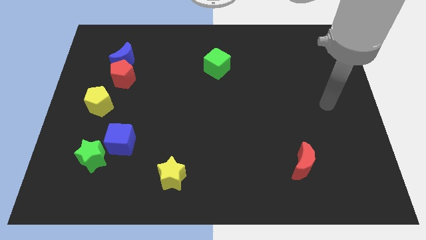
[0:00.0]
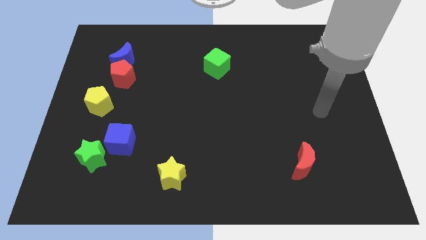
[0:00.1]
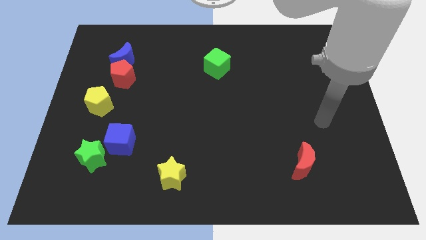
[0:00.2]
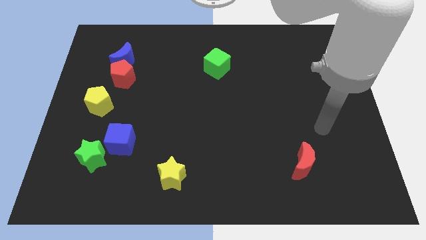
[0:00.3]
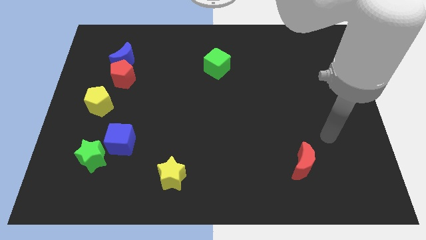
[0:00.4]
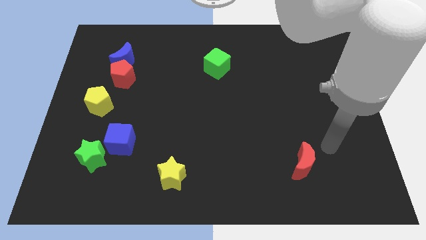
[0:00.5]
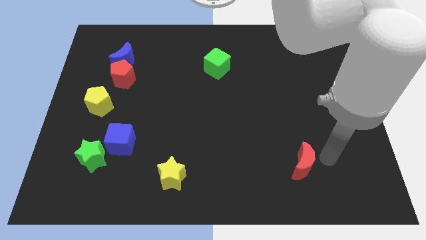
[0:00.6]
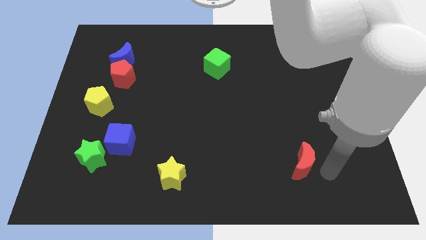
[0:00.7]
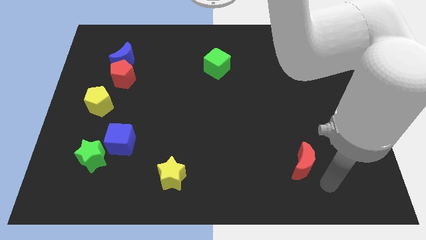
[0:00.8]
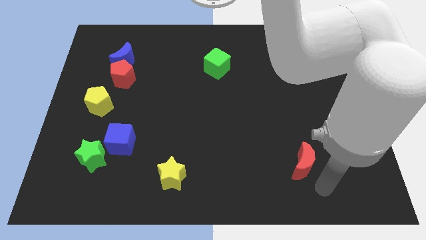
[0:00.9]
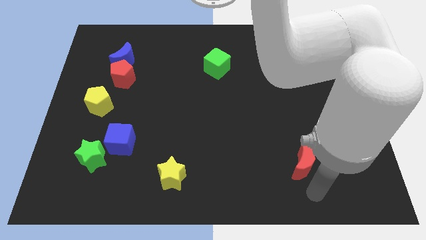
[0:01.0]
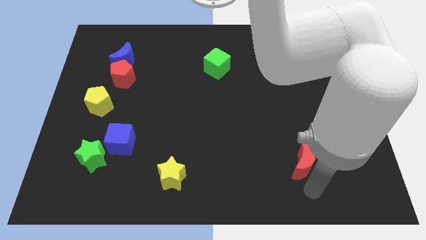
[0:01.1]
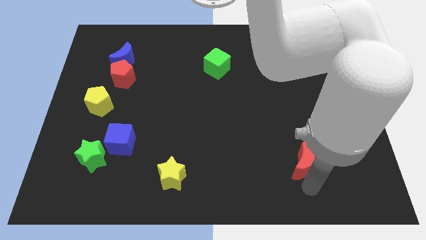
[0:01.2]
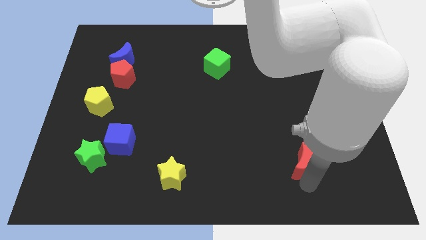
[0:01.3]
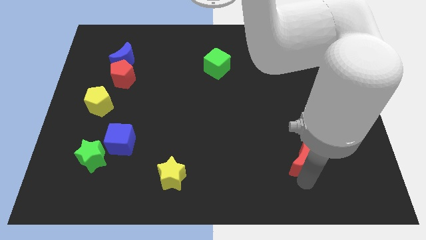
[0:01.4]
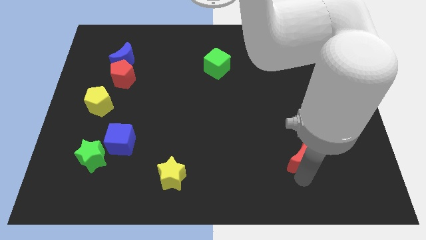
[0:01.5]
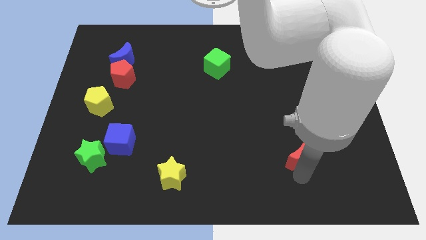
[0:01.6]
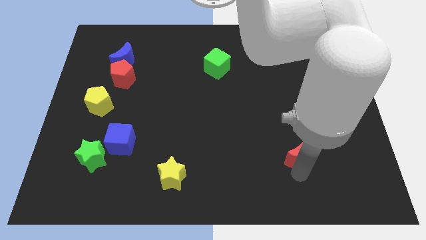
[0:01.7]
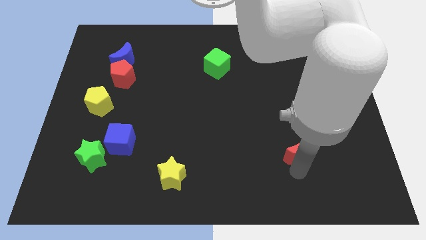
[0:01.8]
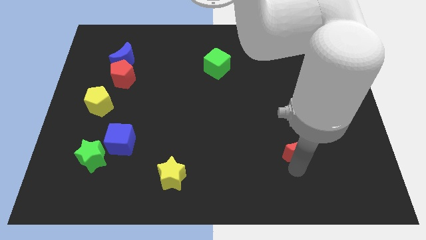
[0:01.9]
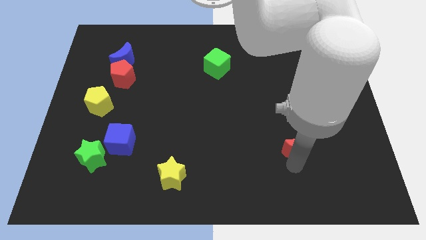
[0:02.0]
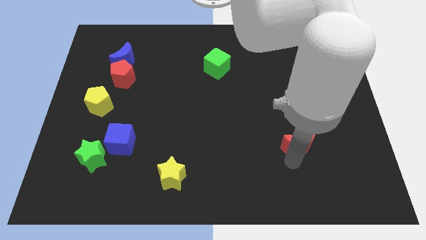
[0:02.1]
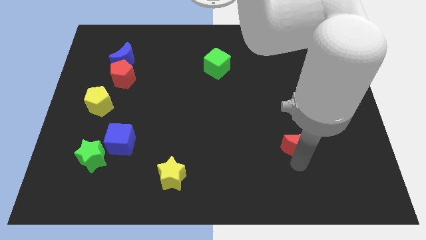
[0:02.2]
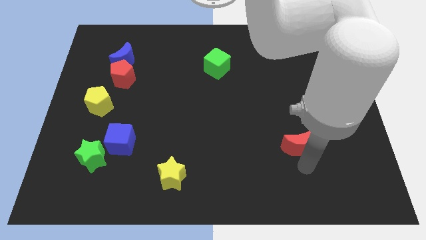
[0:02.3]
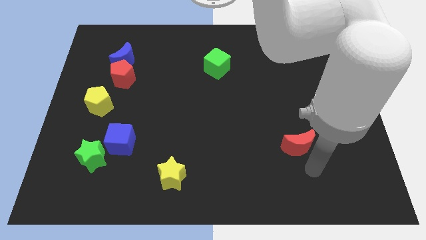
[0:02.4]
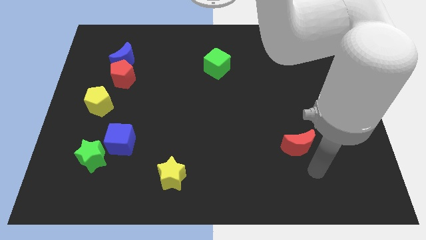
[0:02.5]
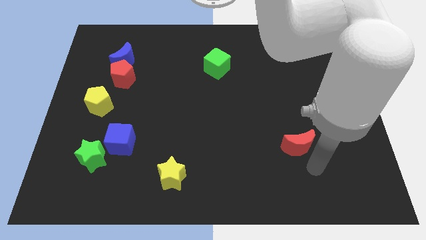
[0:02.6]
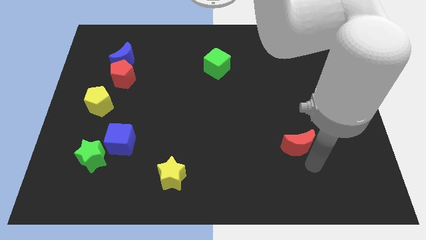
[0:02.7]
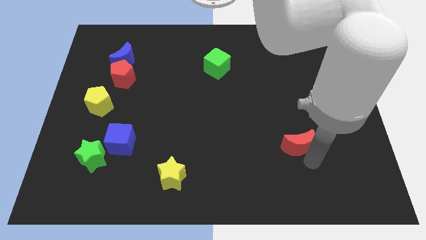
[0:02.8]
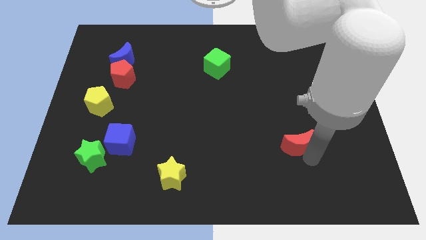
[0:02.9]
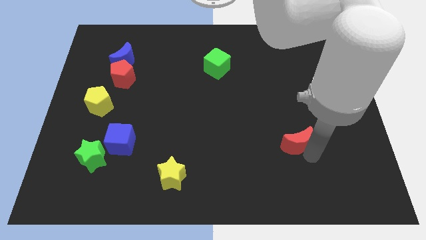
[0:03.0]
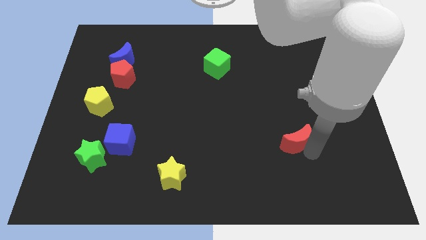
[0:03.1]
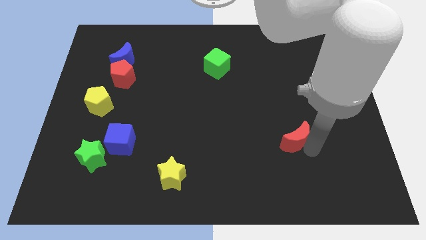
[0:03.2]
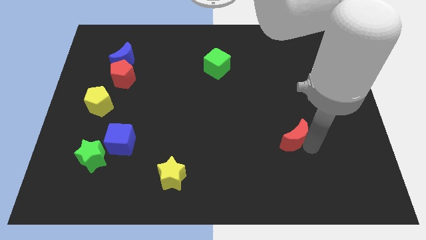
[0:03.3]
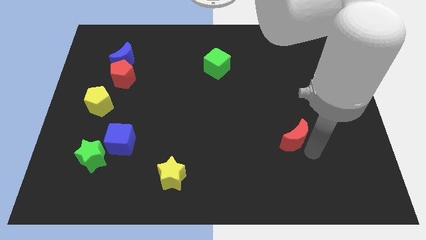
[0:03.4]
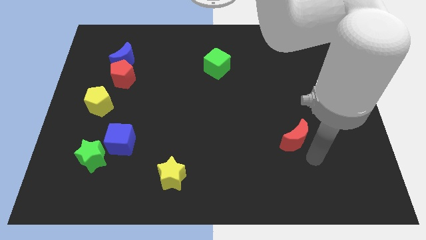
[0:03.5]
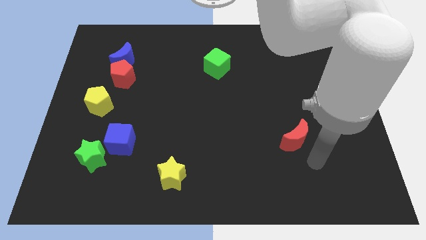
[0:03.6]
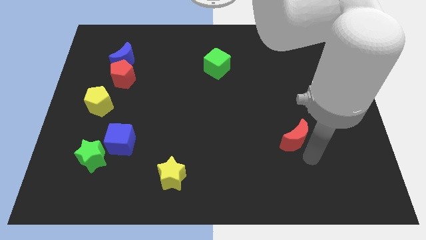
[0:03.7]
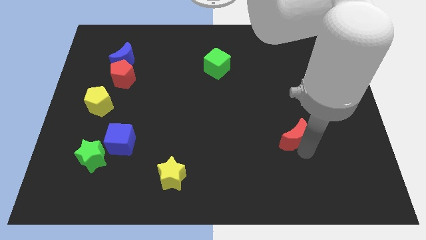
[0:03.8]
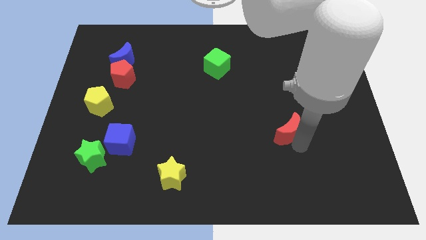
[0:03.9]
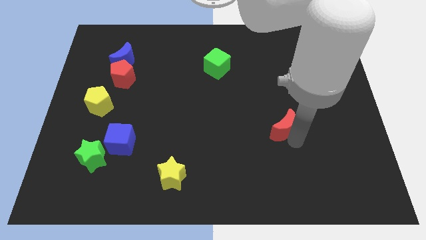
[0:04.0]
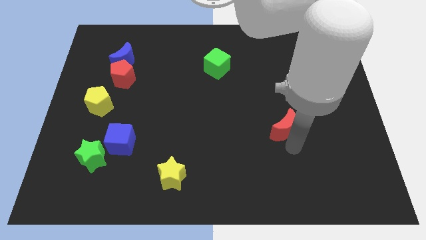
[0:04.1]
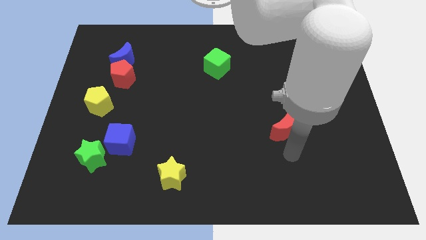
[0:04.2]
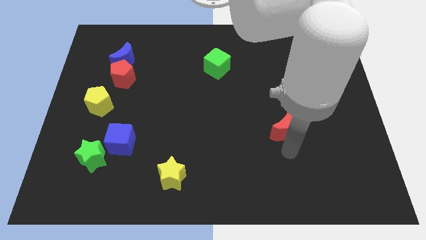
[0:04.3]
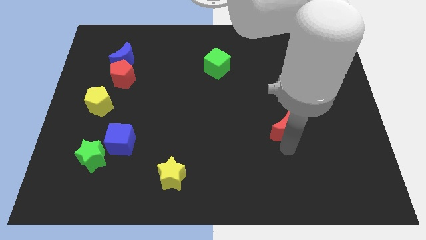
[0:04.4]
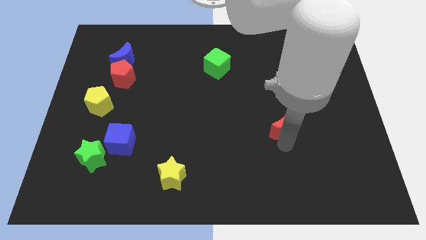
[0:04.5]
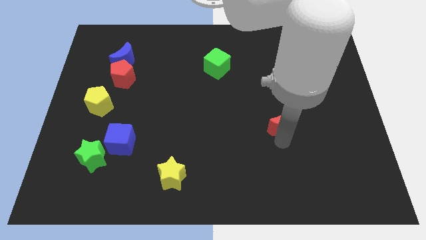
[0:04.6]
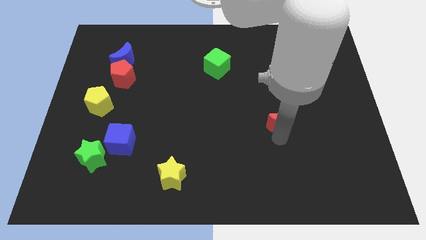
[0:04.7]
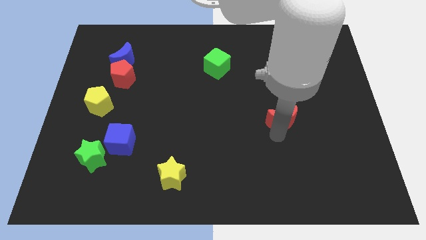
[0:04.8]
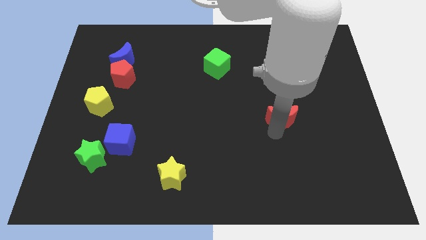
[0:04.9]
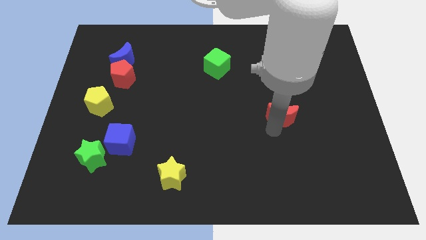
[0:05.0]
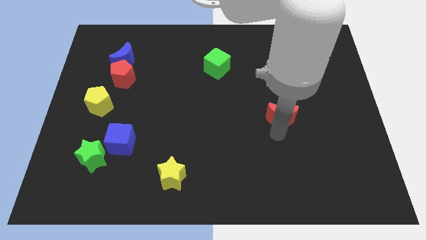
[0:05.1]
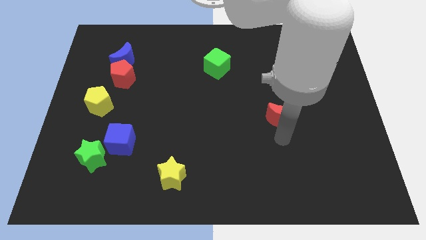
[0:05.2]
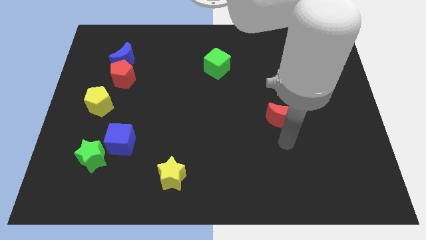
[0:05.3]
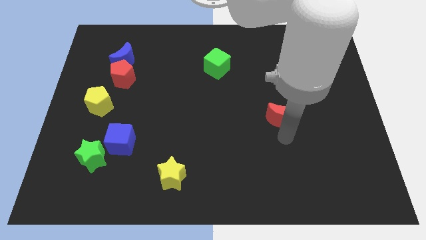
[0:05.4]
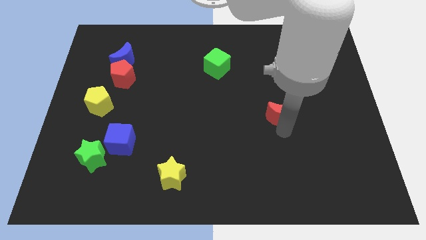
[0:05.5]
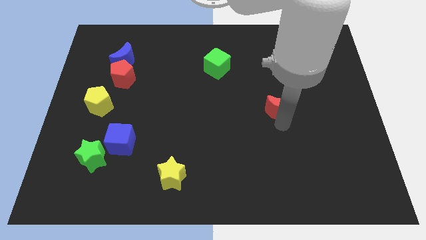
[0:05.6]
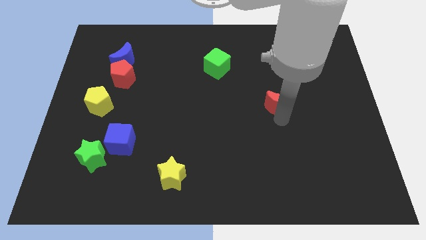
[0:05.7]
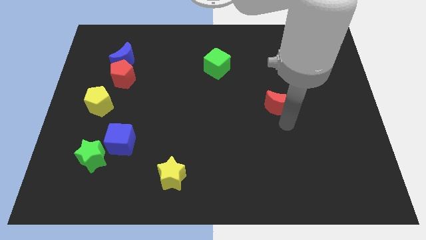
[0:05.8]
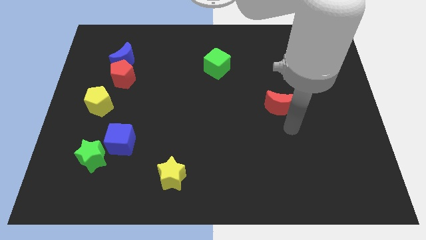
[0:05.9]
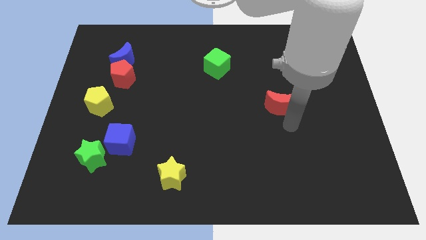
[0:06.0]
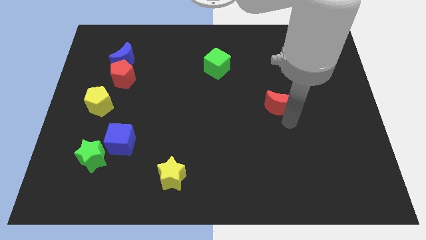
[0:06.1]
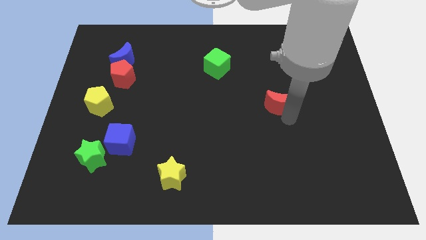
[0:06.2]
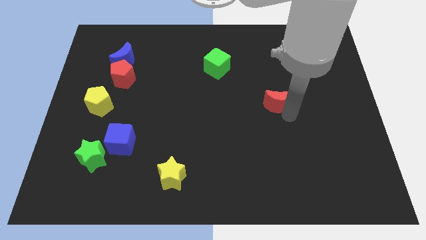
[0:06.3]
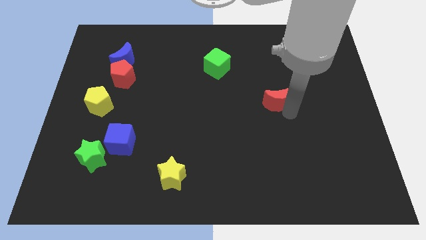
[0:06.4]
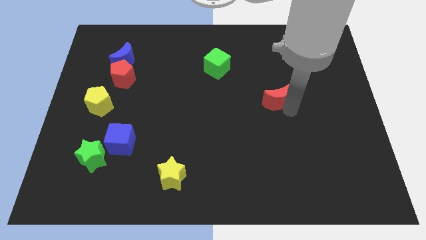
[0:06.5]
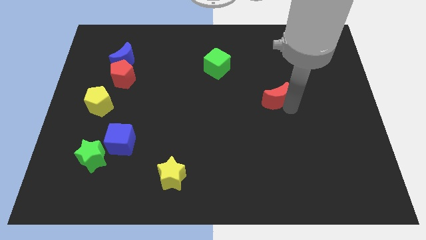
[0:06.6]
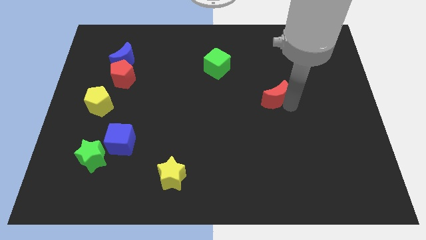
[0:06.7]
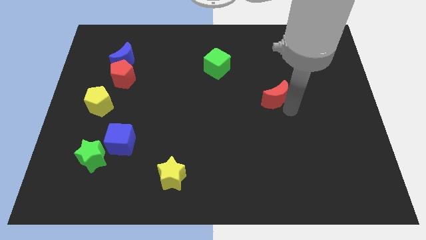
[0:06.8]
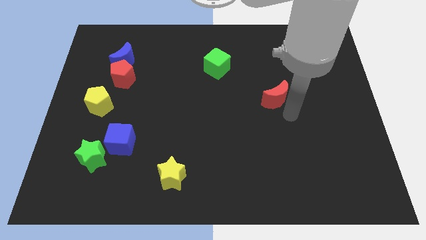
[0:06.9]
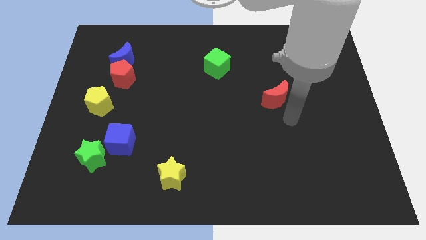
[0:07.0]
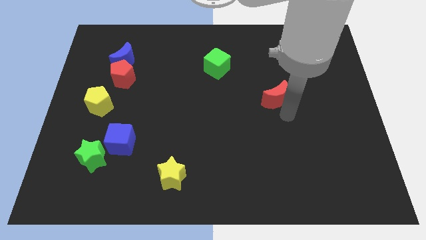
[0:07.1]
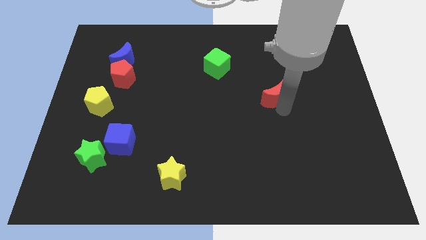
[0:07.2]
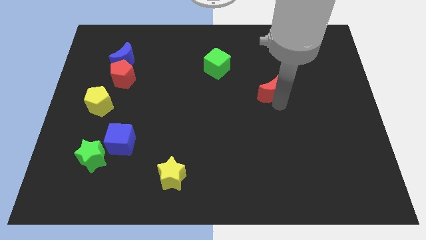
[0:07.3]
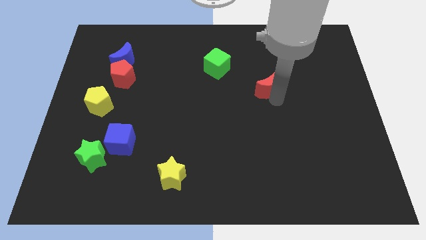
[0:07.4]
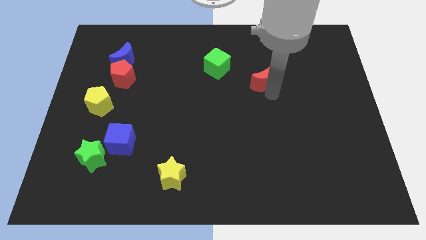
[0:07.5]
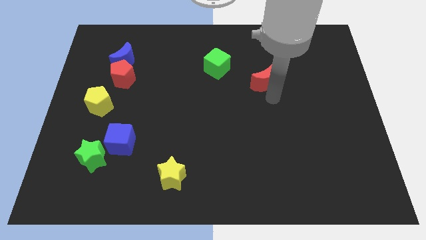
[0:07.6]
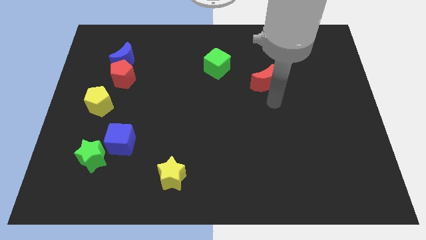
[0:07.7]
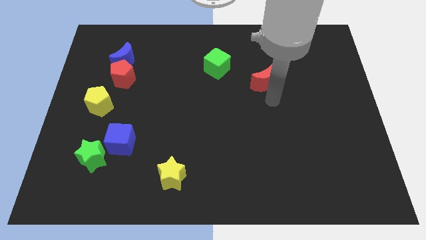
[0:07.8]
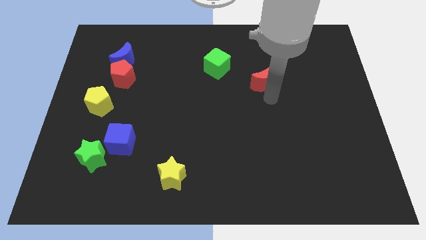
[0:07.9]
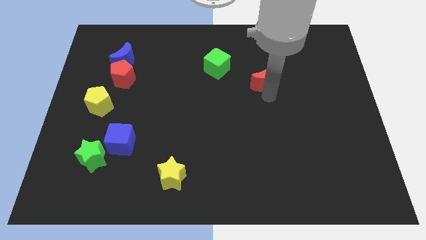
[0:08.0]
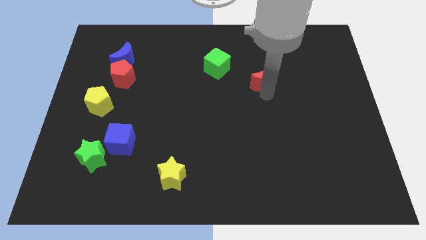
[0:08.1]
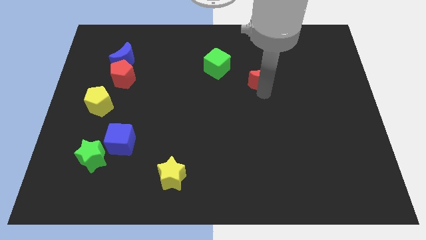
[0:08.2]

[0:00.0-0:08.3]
put the red moon to the right side of the green cube
